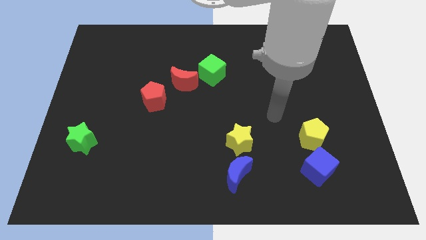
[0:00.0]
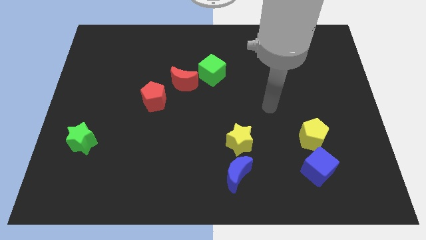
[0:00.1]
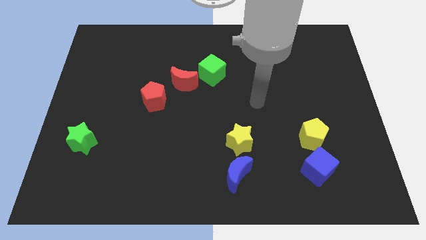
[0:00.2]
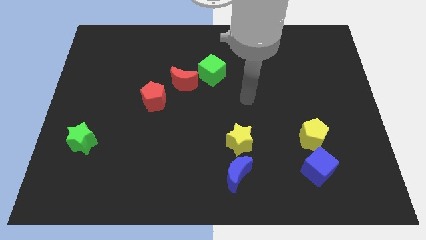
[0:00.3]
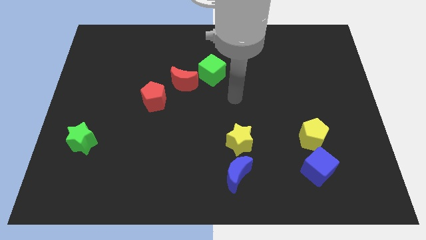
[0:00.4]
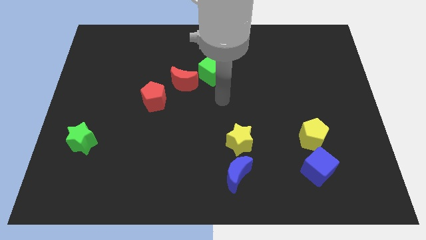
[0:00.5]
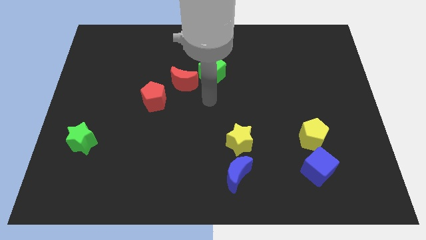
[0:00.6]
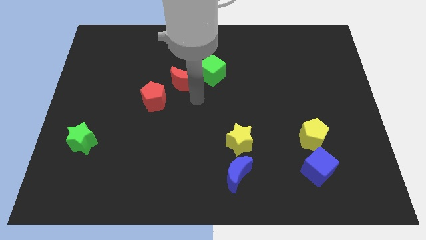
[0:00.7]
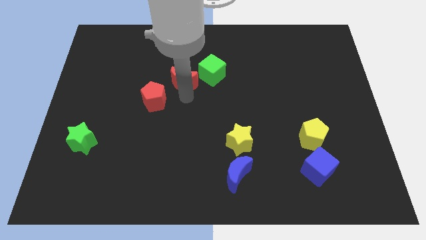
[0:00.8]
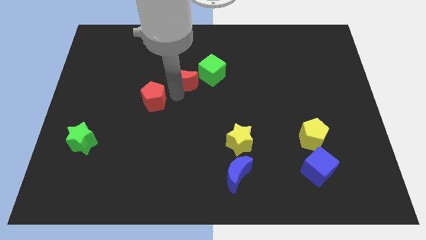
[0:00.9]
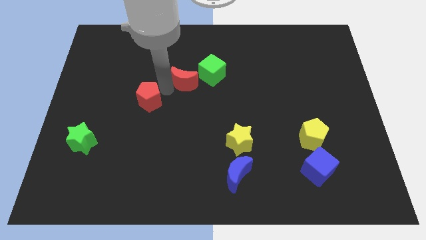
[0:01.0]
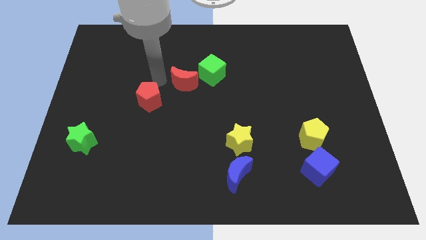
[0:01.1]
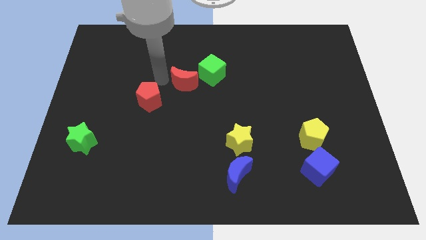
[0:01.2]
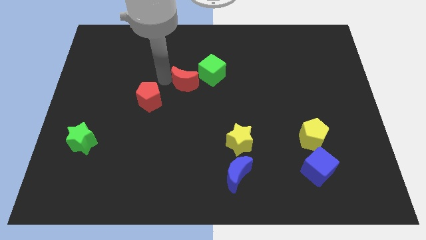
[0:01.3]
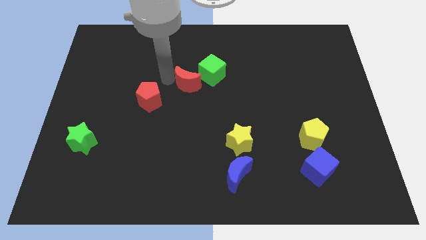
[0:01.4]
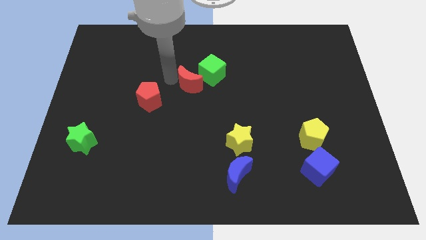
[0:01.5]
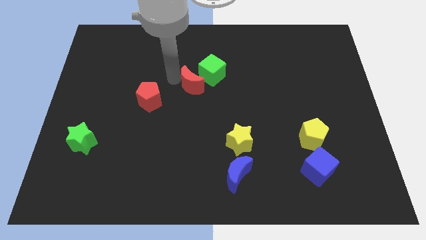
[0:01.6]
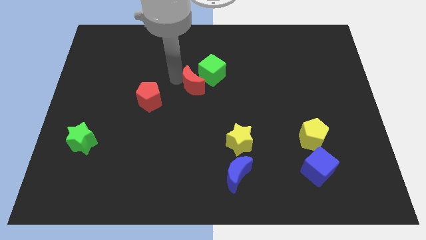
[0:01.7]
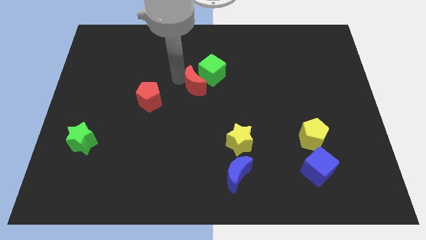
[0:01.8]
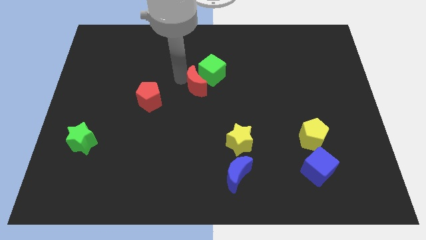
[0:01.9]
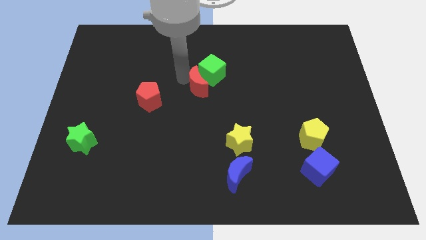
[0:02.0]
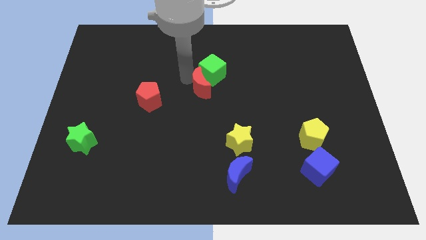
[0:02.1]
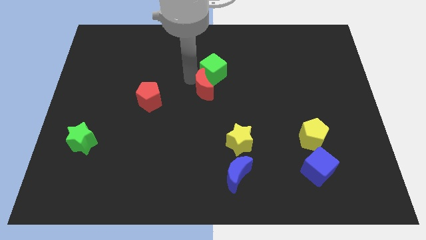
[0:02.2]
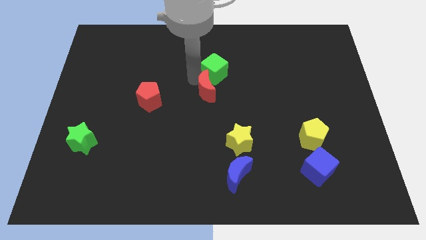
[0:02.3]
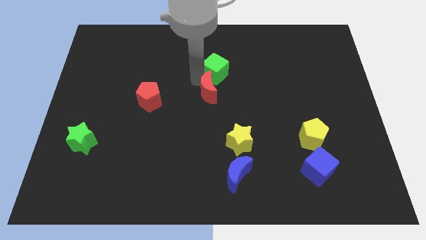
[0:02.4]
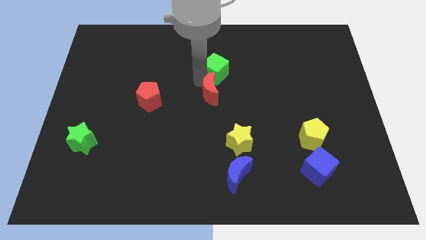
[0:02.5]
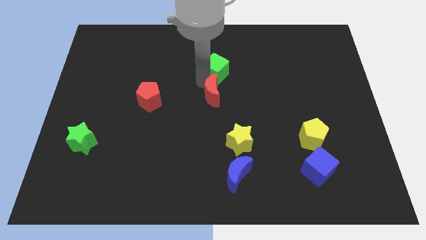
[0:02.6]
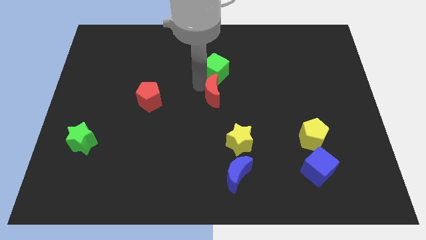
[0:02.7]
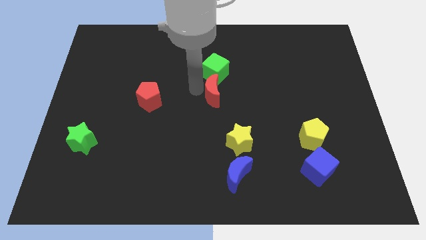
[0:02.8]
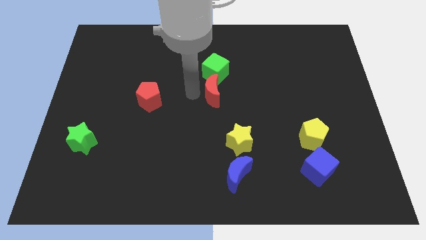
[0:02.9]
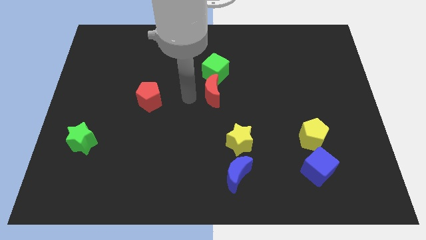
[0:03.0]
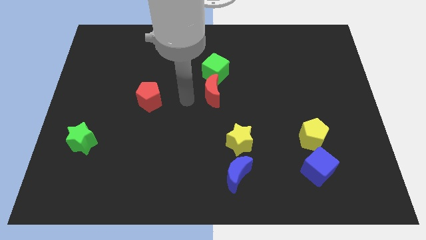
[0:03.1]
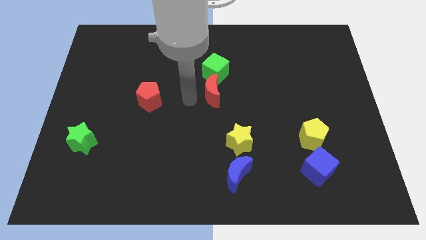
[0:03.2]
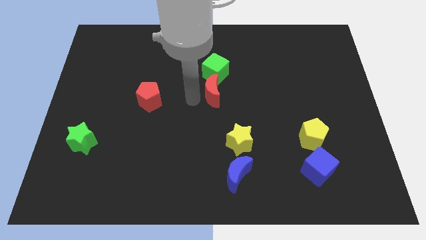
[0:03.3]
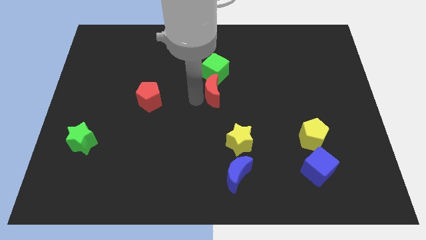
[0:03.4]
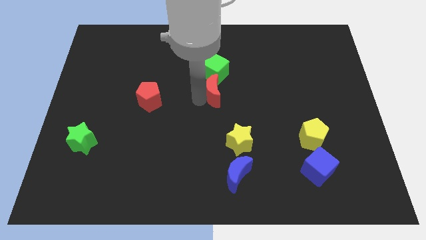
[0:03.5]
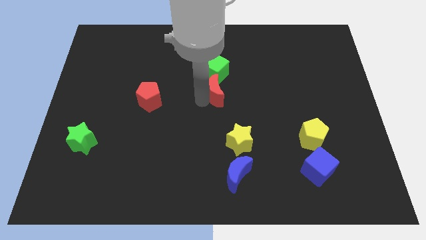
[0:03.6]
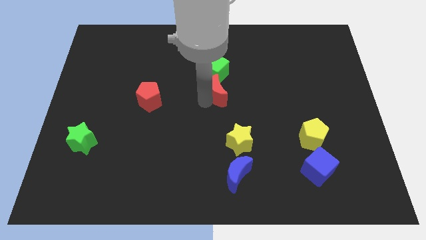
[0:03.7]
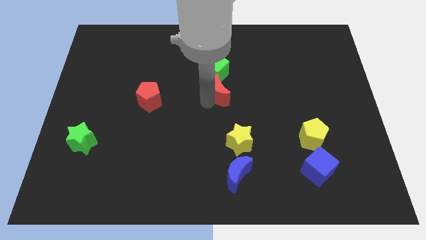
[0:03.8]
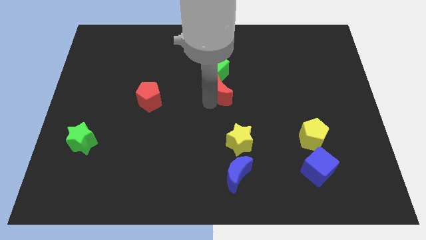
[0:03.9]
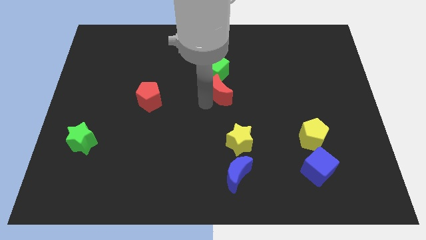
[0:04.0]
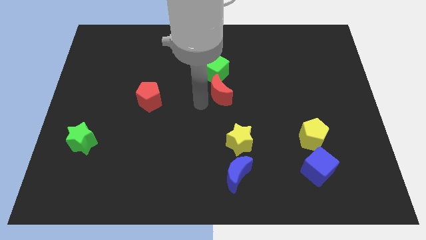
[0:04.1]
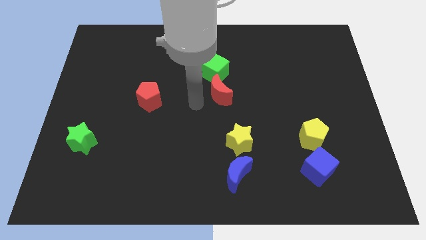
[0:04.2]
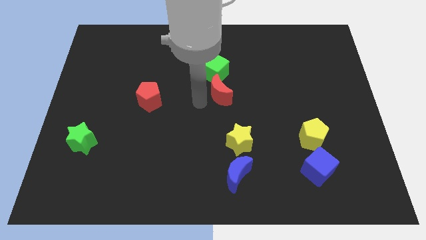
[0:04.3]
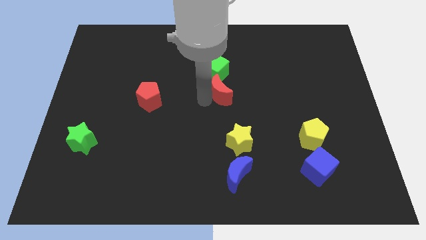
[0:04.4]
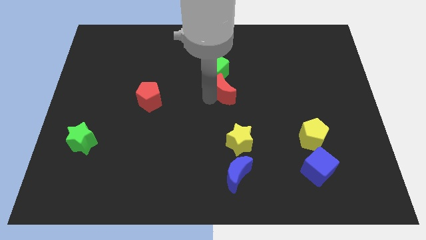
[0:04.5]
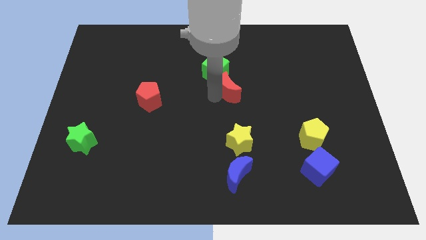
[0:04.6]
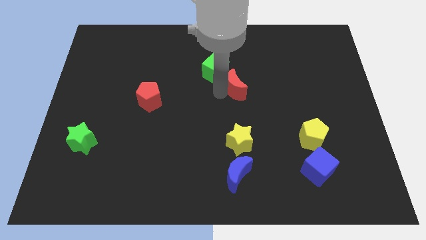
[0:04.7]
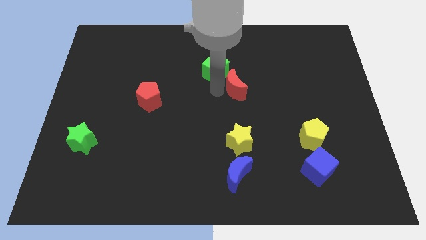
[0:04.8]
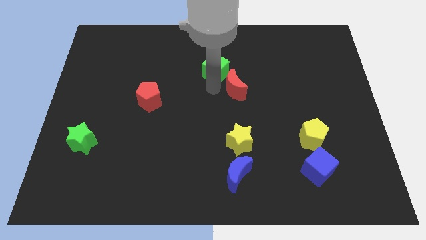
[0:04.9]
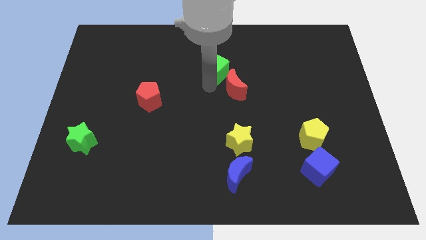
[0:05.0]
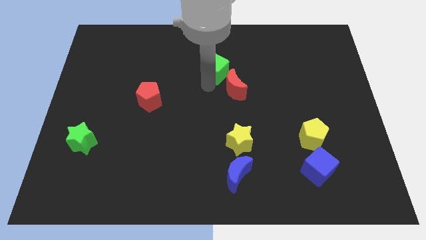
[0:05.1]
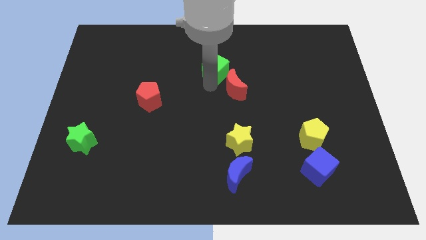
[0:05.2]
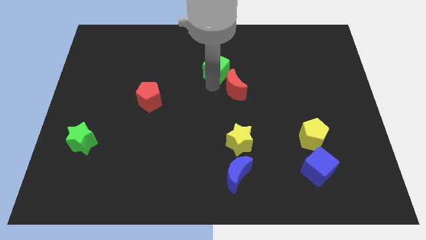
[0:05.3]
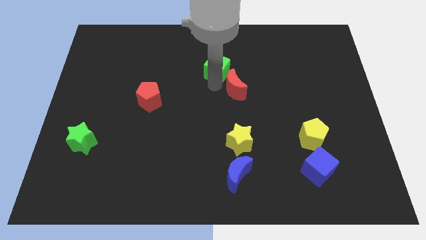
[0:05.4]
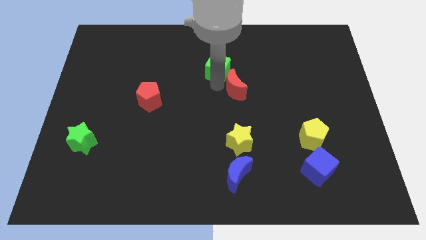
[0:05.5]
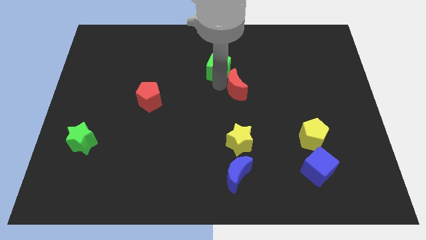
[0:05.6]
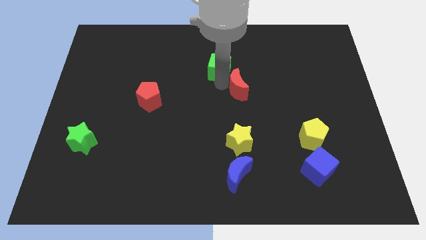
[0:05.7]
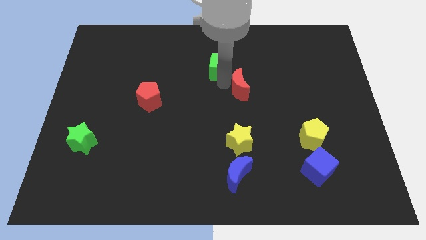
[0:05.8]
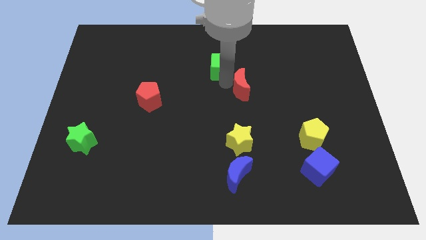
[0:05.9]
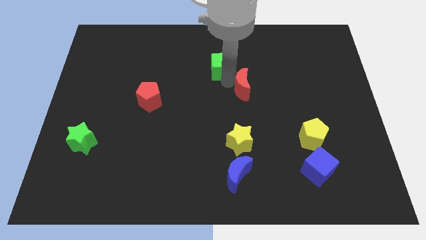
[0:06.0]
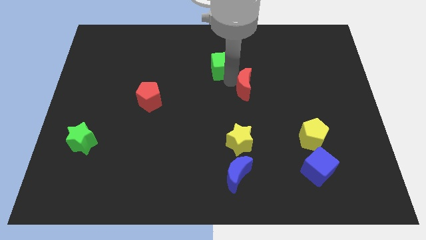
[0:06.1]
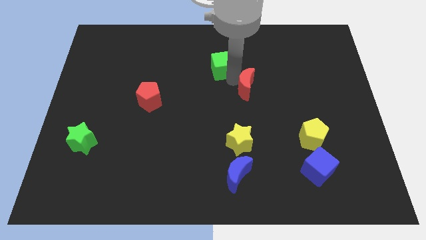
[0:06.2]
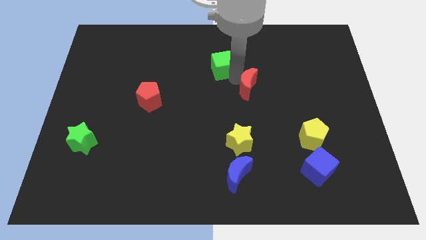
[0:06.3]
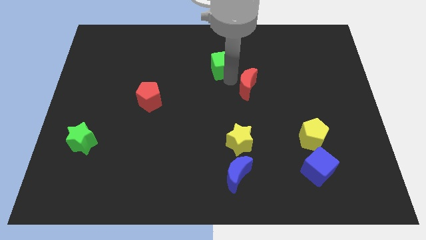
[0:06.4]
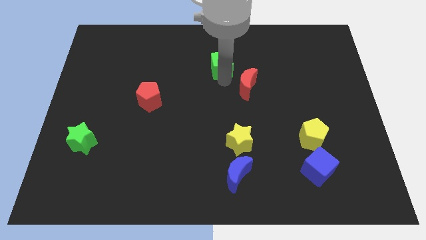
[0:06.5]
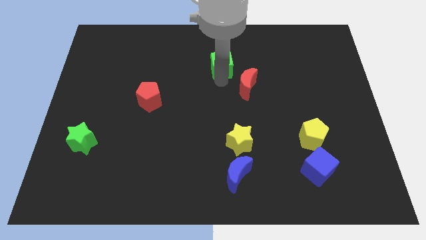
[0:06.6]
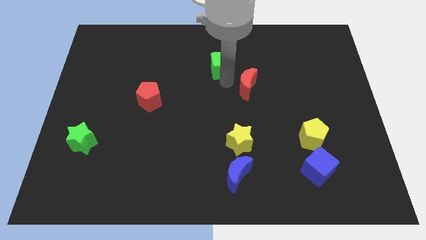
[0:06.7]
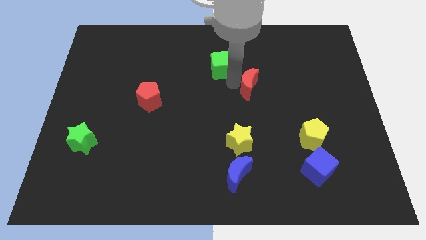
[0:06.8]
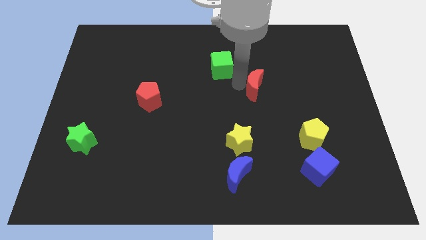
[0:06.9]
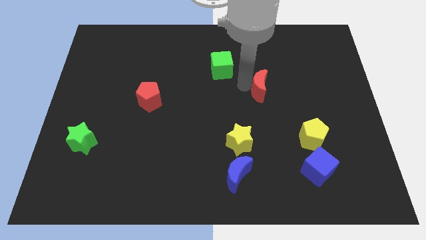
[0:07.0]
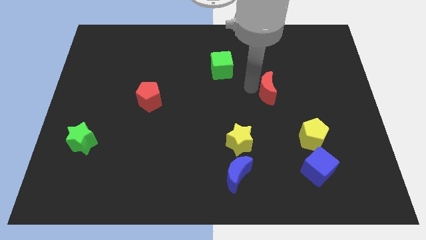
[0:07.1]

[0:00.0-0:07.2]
move the red moon to the right

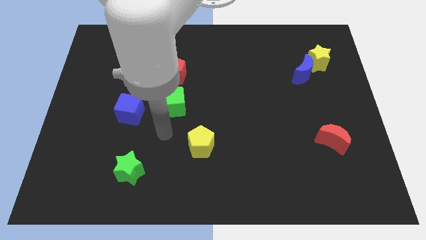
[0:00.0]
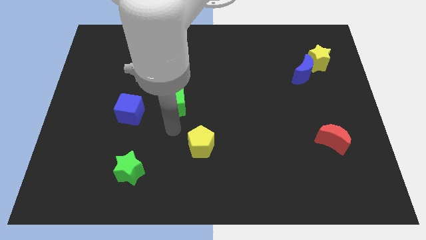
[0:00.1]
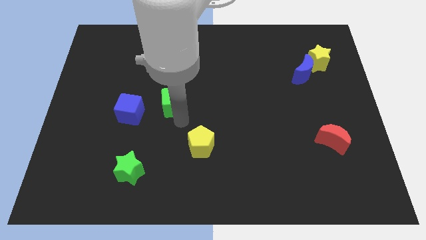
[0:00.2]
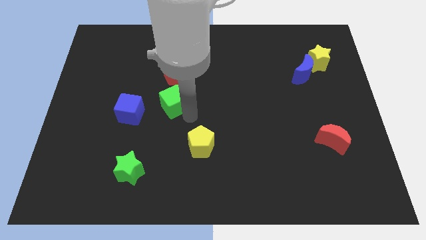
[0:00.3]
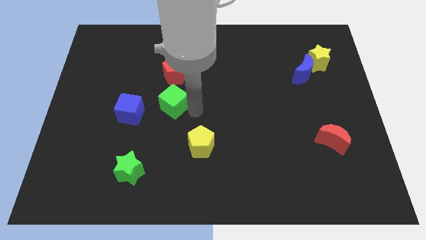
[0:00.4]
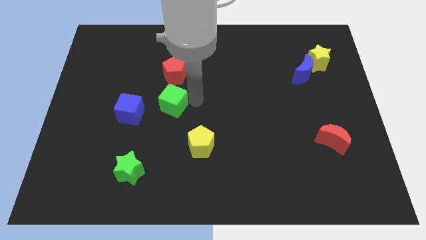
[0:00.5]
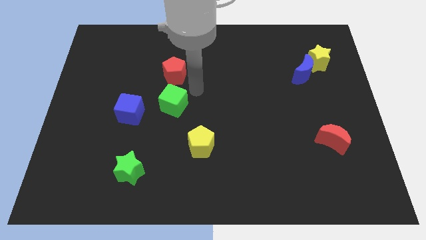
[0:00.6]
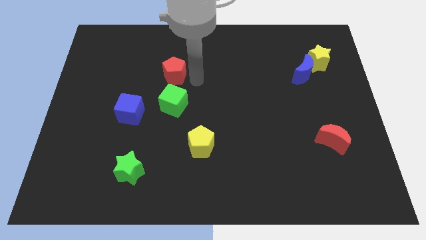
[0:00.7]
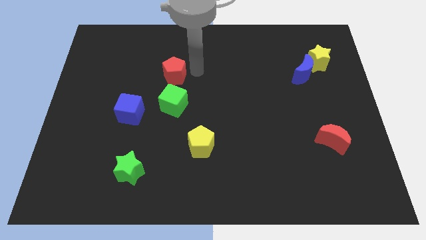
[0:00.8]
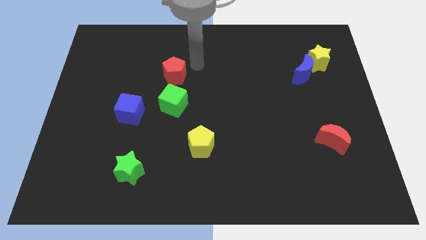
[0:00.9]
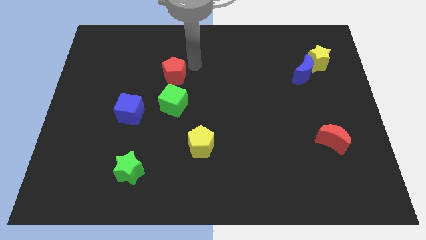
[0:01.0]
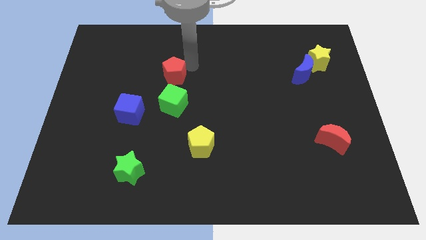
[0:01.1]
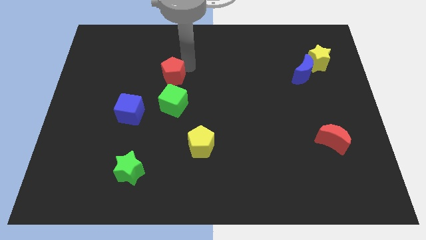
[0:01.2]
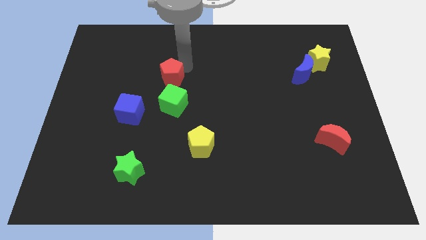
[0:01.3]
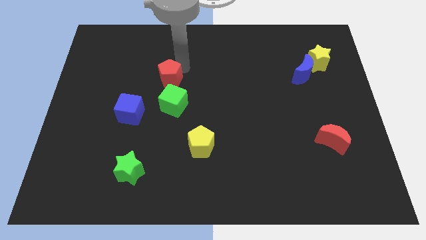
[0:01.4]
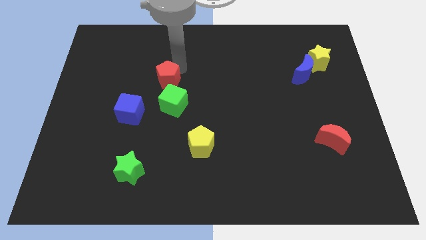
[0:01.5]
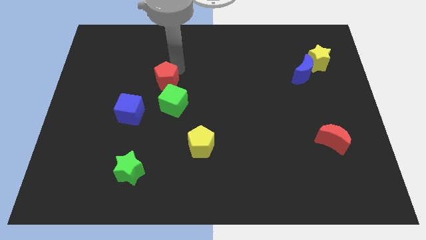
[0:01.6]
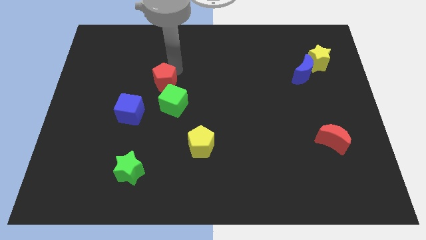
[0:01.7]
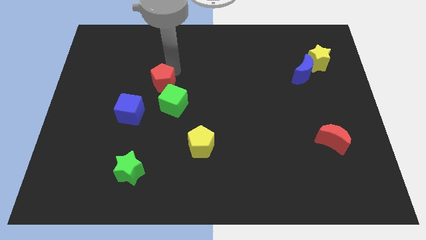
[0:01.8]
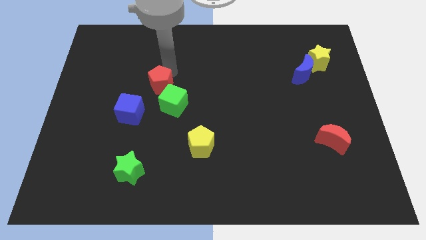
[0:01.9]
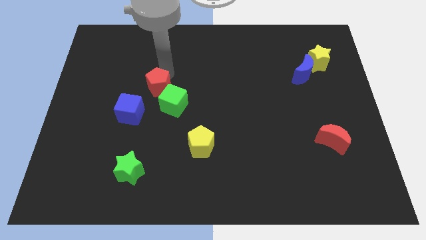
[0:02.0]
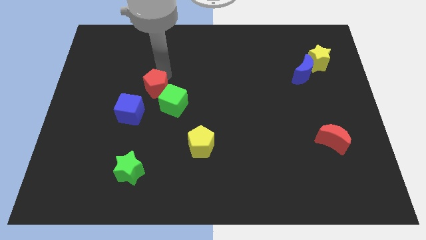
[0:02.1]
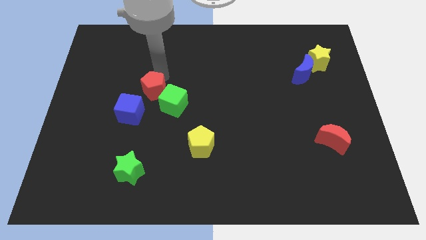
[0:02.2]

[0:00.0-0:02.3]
slightly push the red pentagon downwards and left
